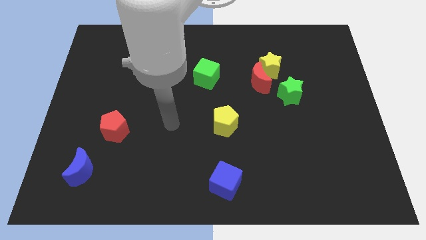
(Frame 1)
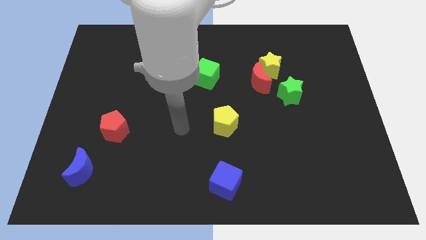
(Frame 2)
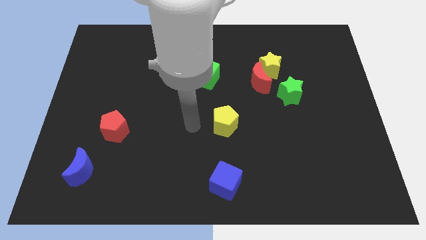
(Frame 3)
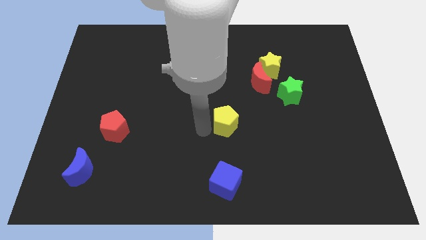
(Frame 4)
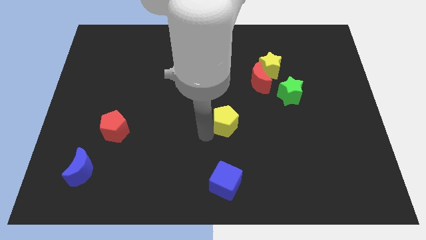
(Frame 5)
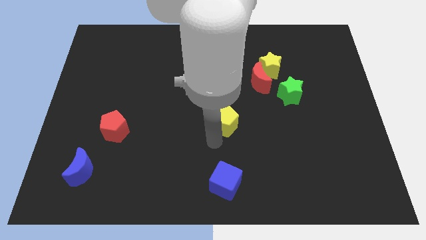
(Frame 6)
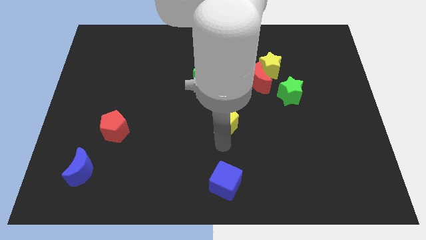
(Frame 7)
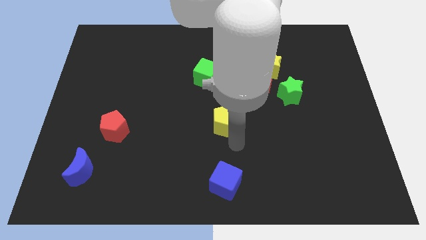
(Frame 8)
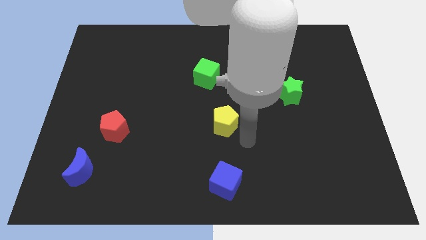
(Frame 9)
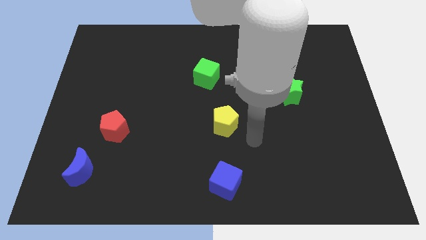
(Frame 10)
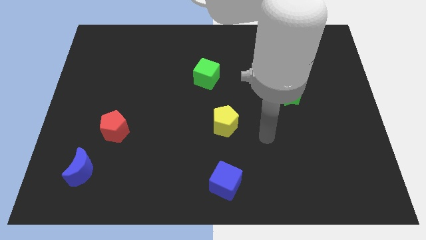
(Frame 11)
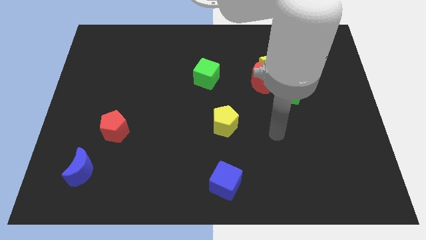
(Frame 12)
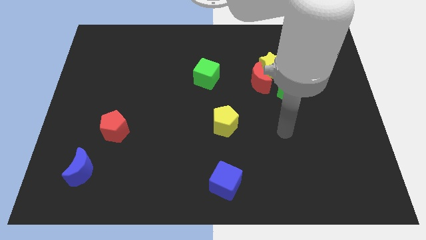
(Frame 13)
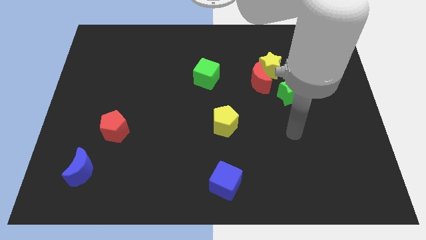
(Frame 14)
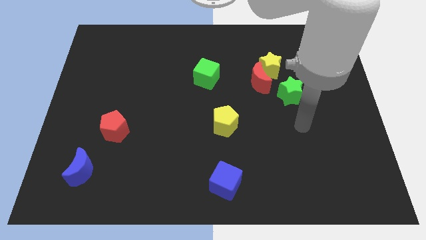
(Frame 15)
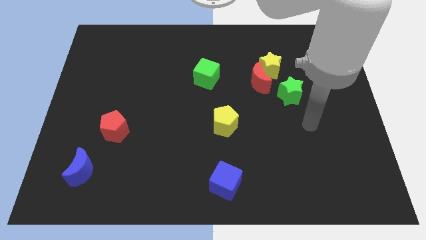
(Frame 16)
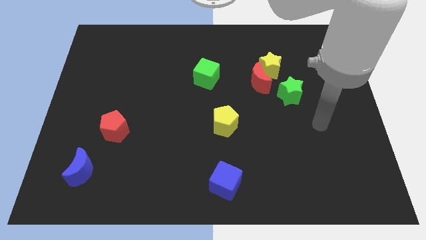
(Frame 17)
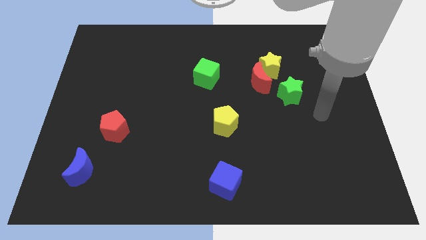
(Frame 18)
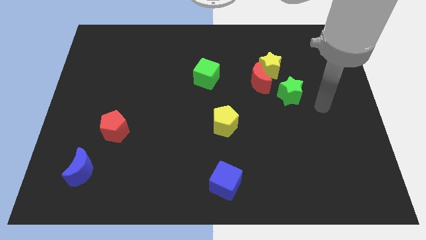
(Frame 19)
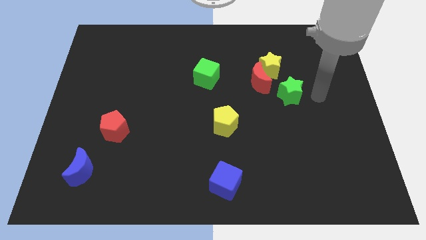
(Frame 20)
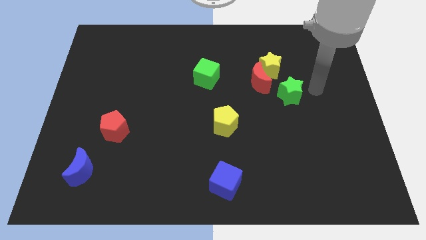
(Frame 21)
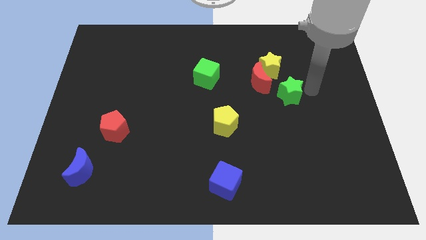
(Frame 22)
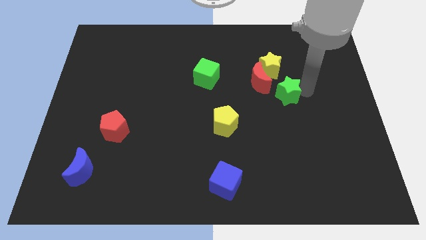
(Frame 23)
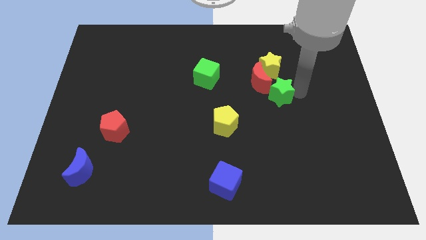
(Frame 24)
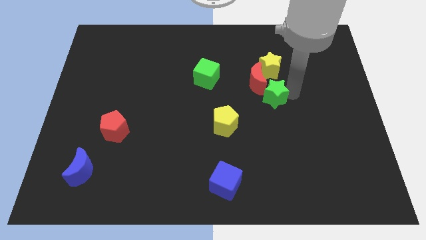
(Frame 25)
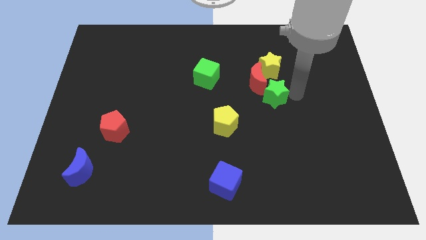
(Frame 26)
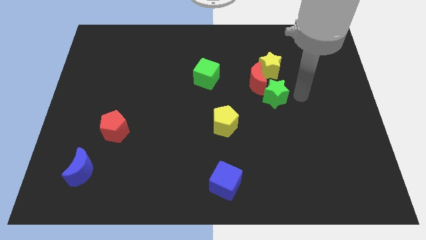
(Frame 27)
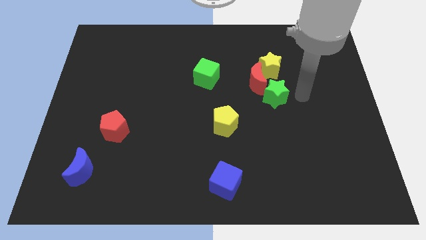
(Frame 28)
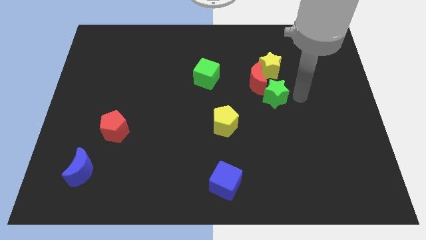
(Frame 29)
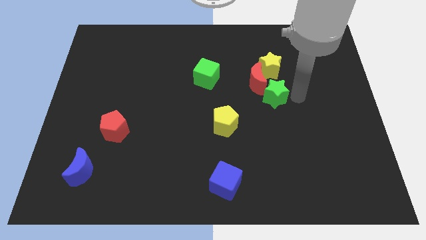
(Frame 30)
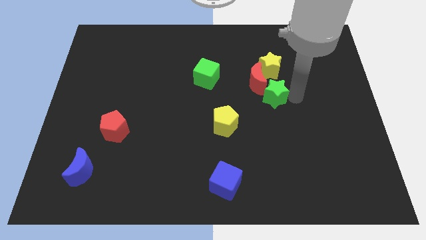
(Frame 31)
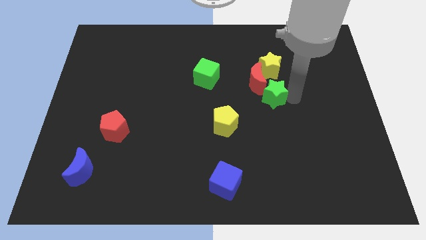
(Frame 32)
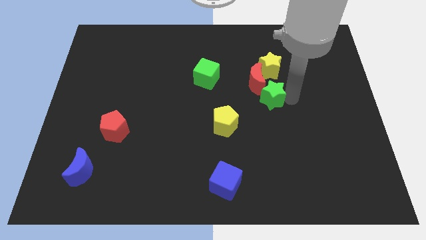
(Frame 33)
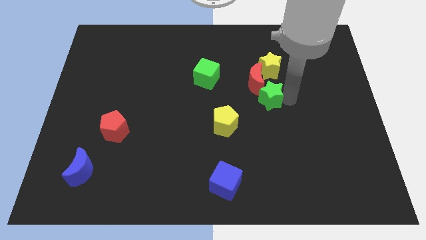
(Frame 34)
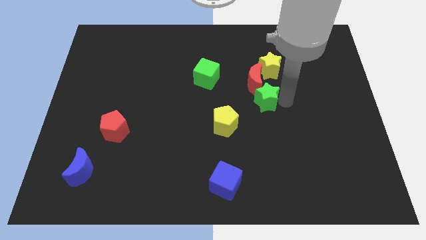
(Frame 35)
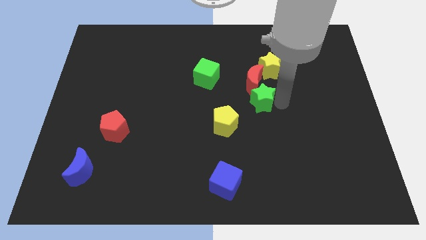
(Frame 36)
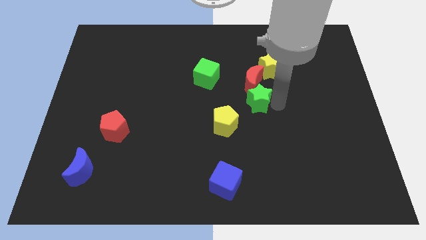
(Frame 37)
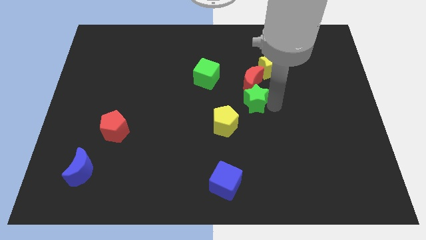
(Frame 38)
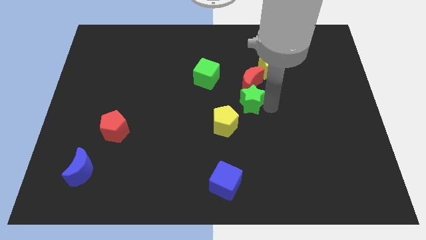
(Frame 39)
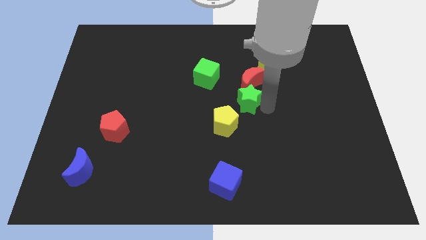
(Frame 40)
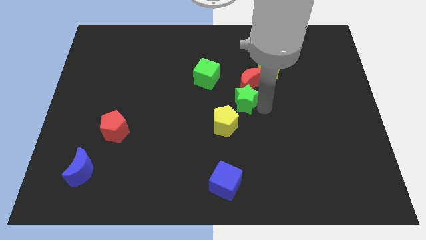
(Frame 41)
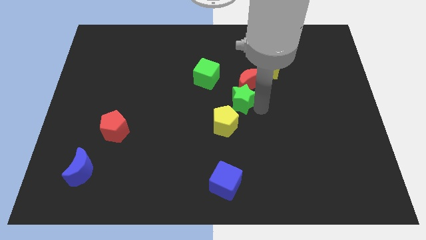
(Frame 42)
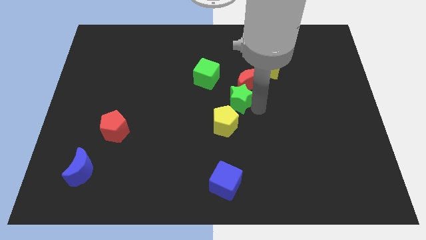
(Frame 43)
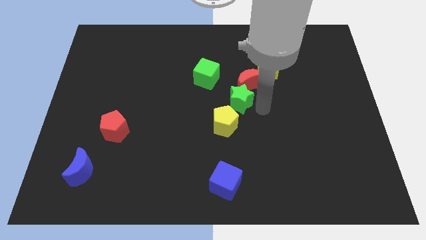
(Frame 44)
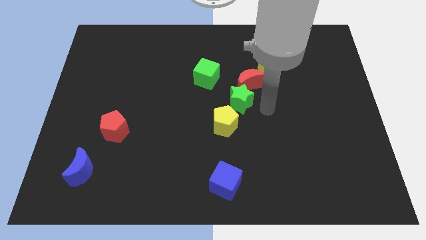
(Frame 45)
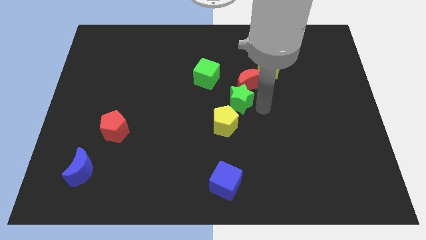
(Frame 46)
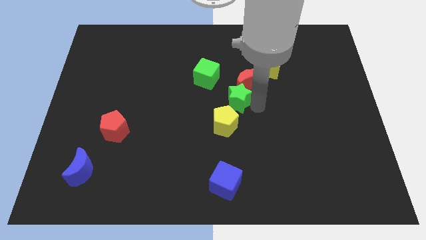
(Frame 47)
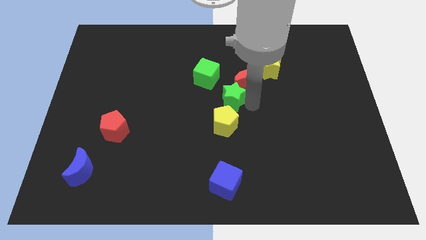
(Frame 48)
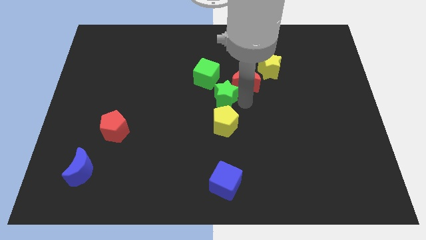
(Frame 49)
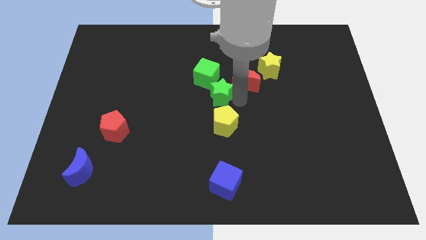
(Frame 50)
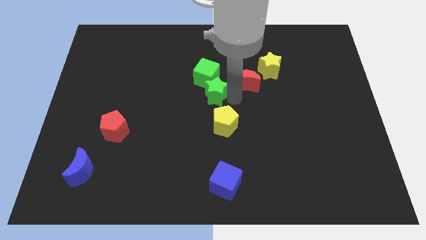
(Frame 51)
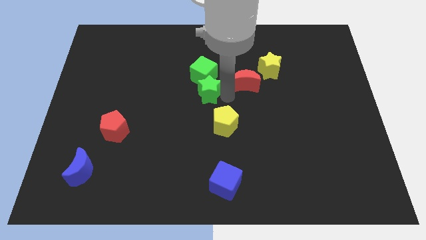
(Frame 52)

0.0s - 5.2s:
slide the green star to the bottom left side of the green cube

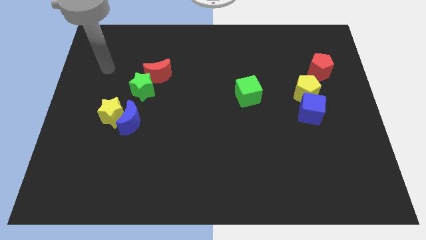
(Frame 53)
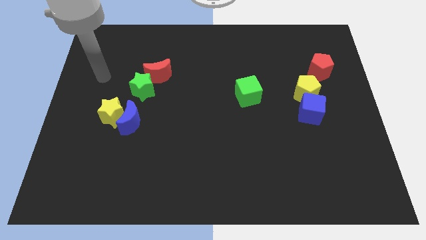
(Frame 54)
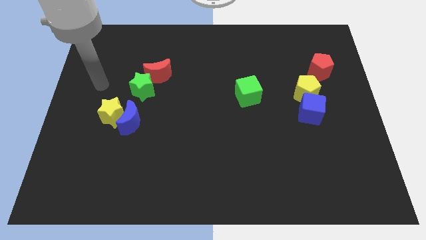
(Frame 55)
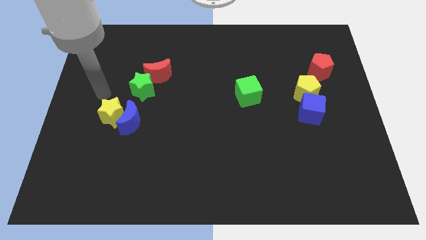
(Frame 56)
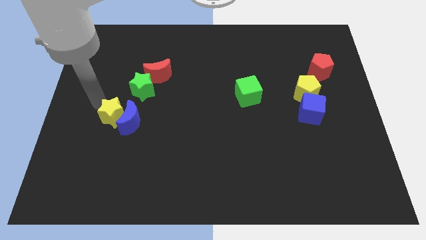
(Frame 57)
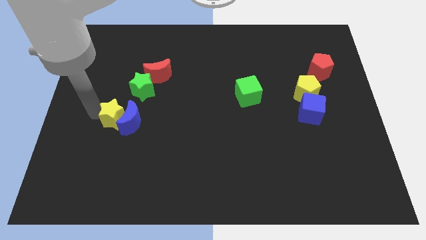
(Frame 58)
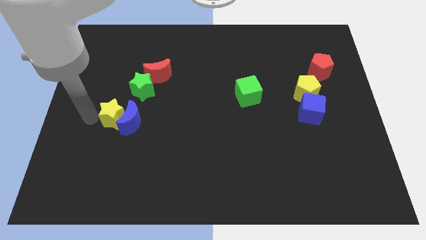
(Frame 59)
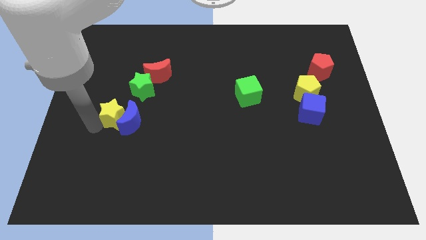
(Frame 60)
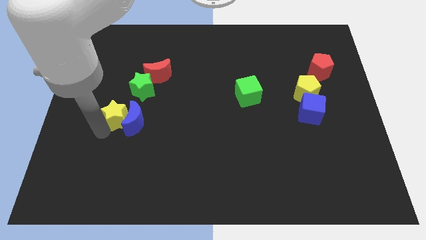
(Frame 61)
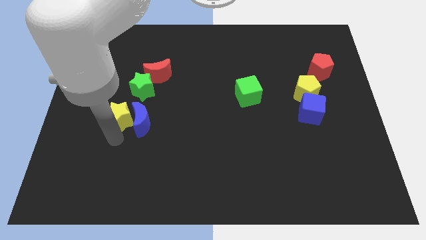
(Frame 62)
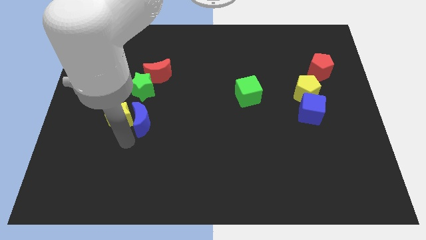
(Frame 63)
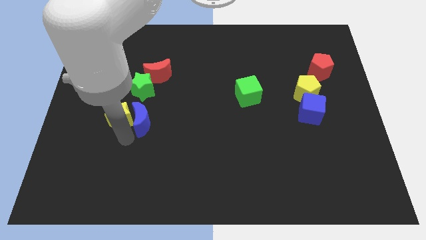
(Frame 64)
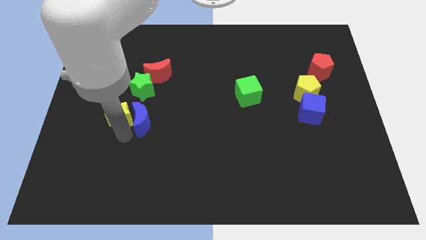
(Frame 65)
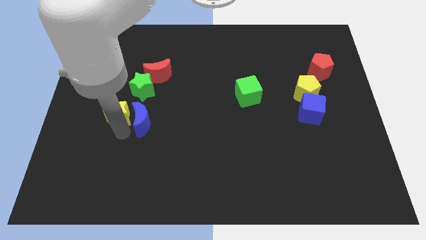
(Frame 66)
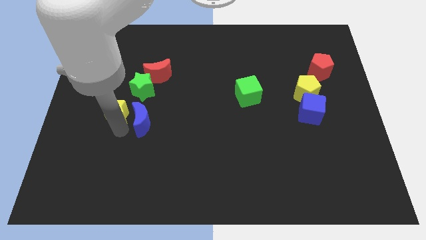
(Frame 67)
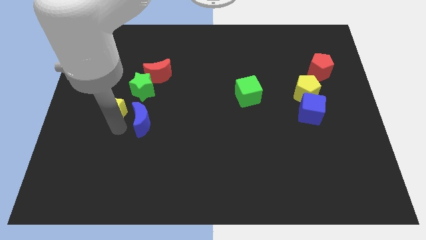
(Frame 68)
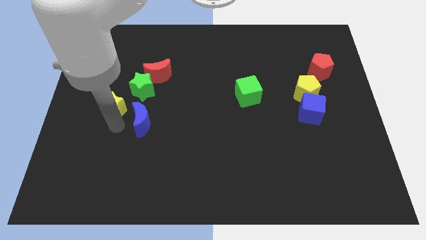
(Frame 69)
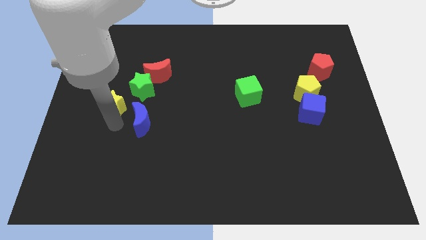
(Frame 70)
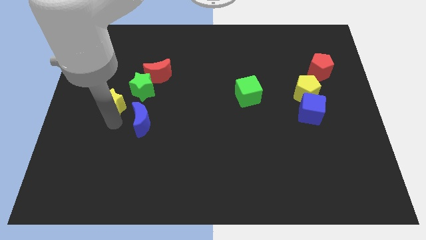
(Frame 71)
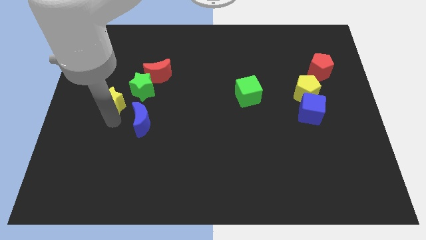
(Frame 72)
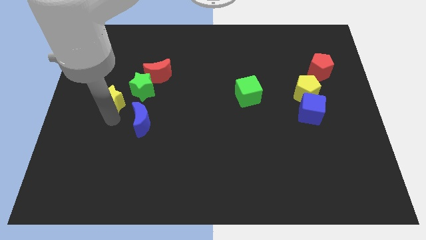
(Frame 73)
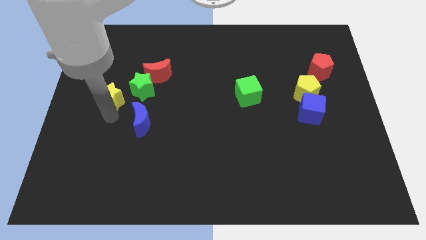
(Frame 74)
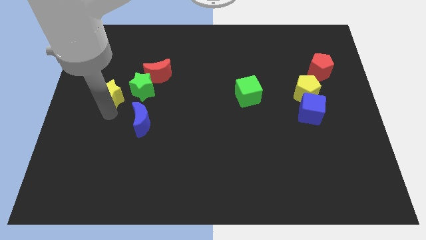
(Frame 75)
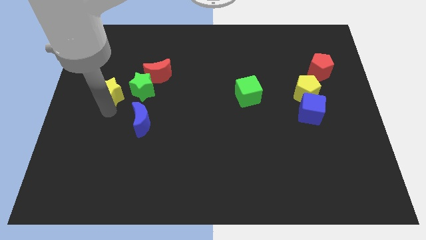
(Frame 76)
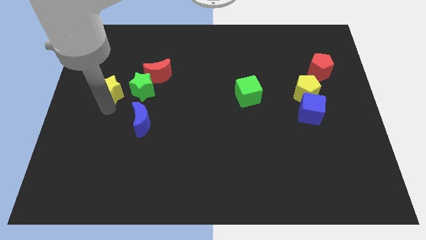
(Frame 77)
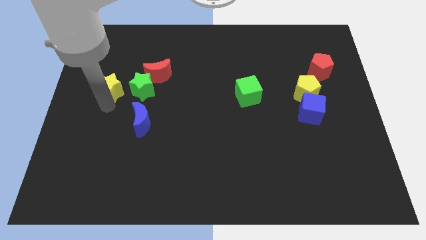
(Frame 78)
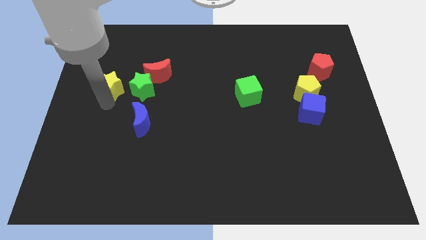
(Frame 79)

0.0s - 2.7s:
slide the yellow star to the left of the red moon
